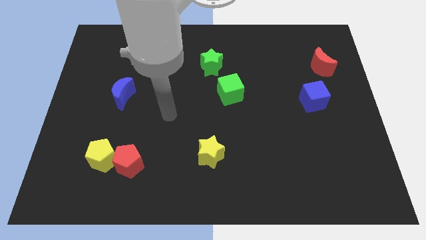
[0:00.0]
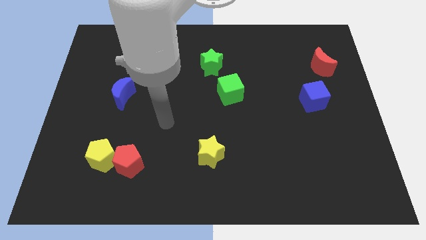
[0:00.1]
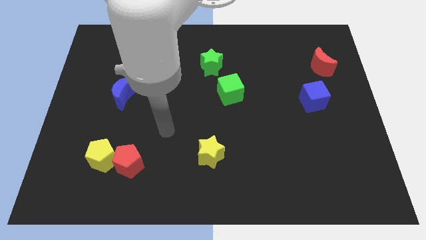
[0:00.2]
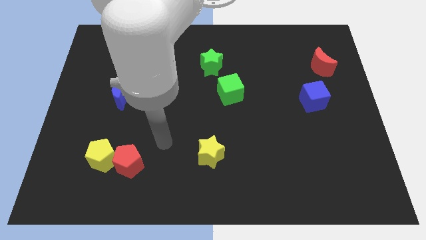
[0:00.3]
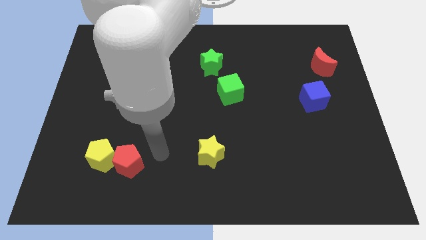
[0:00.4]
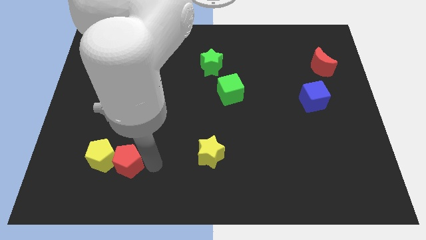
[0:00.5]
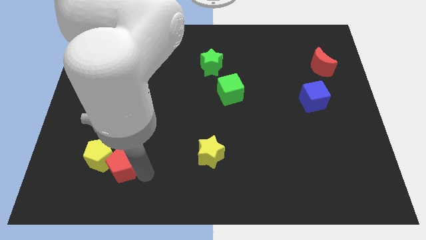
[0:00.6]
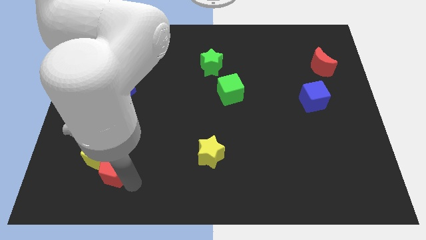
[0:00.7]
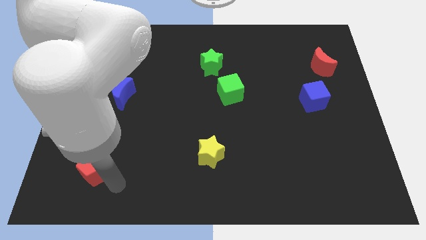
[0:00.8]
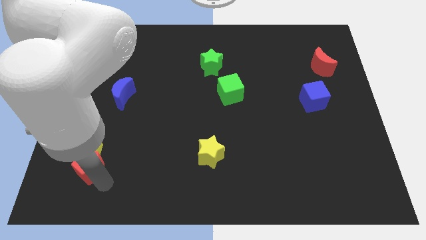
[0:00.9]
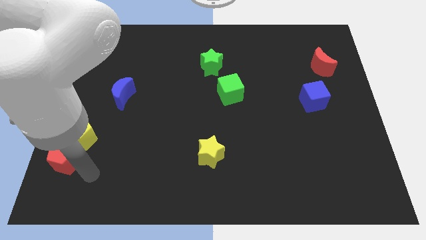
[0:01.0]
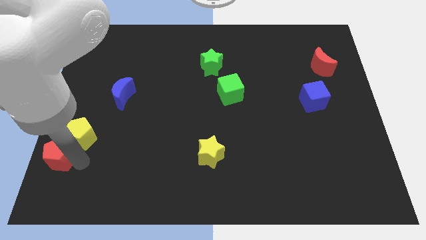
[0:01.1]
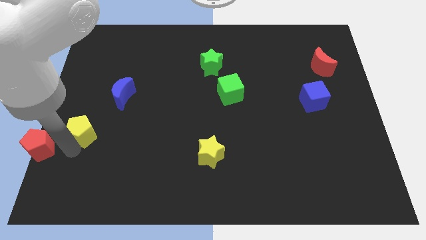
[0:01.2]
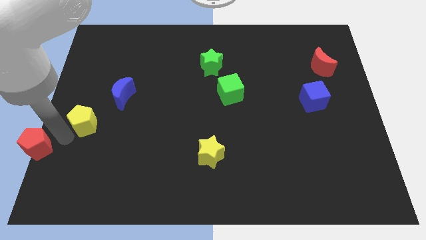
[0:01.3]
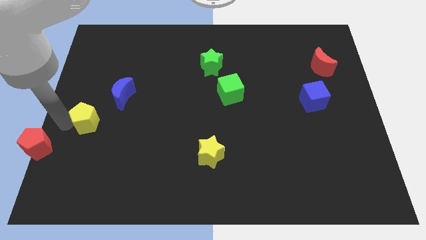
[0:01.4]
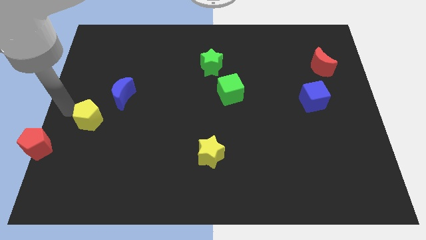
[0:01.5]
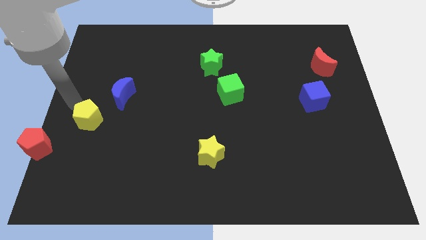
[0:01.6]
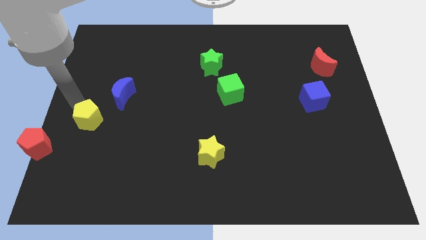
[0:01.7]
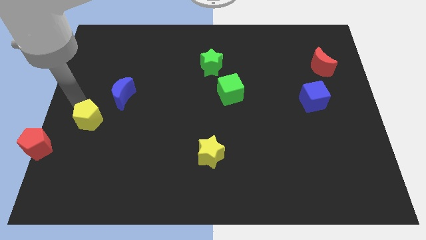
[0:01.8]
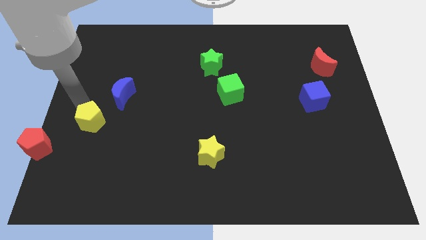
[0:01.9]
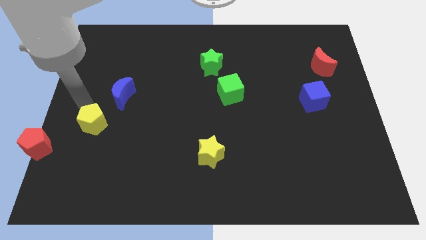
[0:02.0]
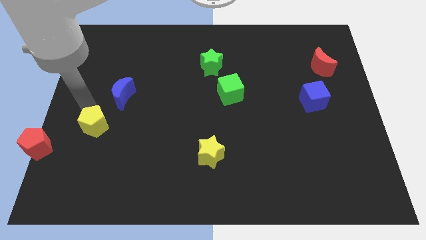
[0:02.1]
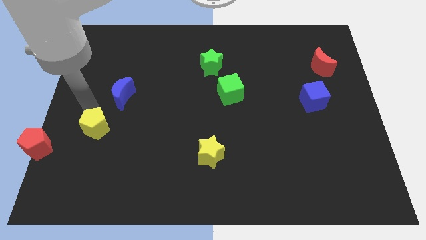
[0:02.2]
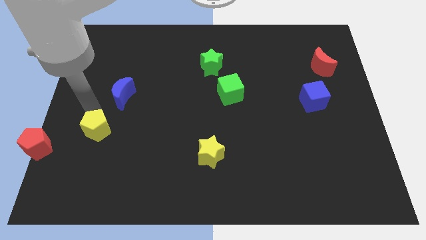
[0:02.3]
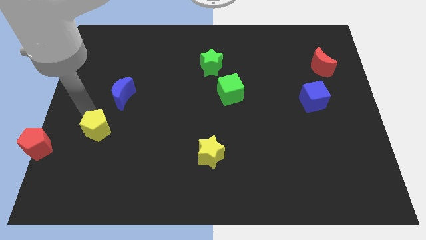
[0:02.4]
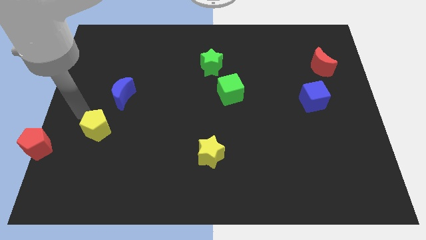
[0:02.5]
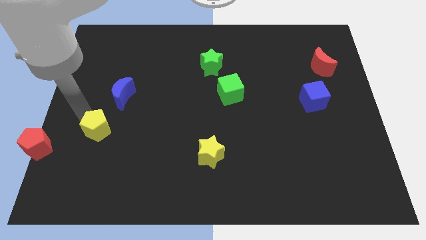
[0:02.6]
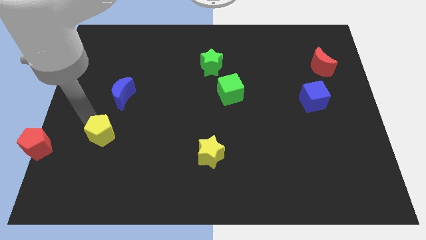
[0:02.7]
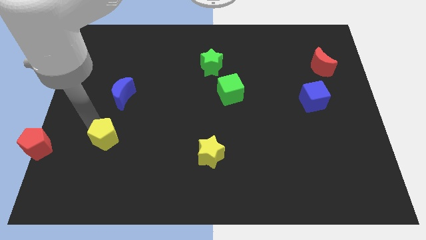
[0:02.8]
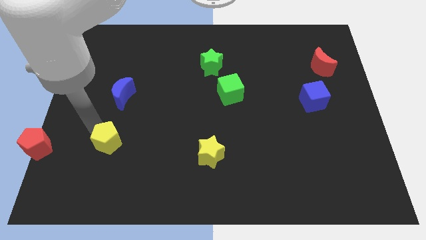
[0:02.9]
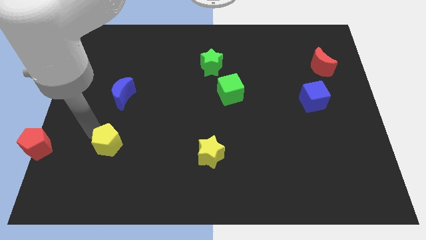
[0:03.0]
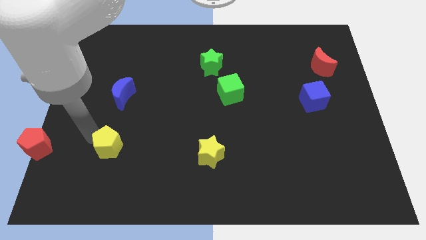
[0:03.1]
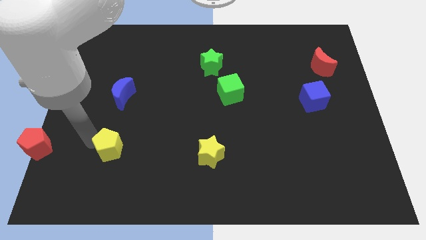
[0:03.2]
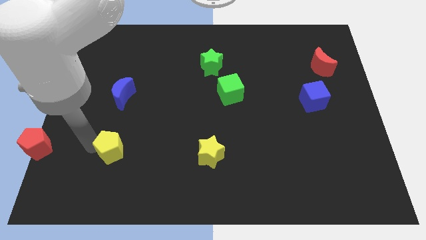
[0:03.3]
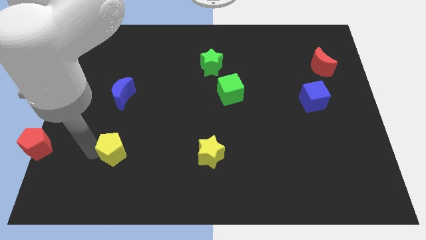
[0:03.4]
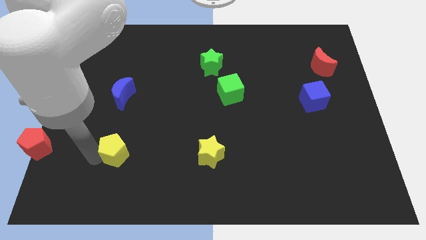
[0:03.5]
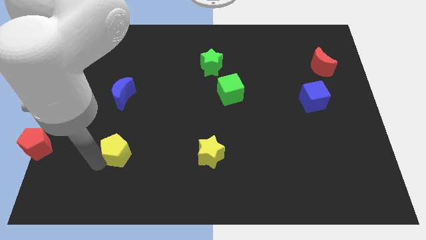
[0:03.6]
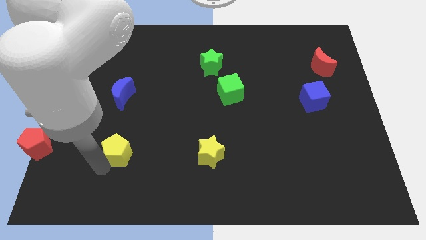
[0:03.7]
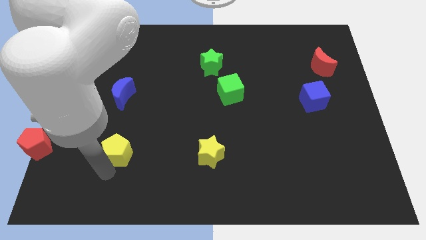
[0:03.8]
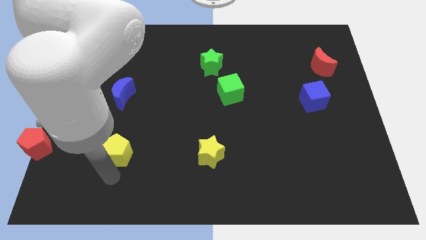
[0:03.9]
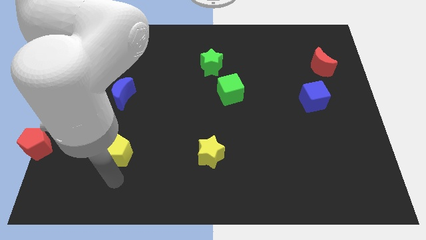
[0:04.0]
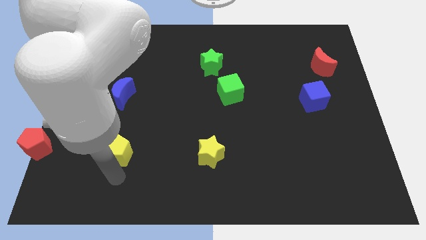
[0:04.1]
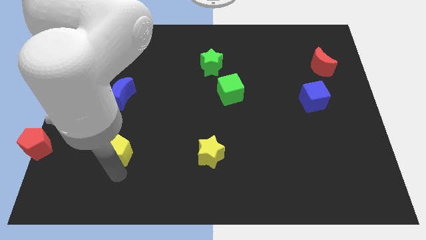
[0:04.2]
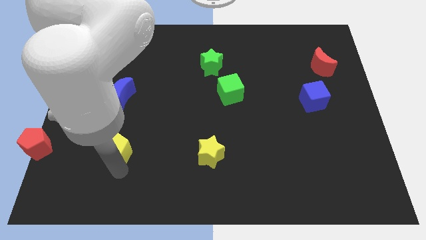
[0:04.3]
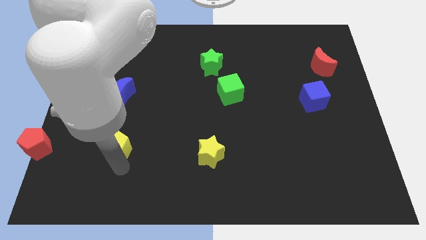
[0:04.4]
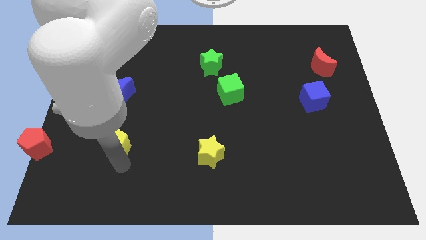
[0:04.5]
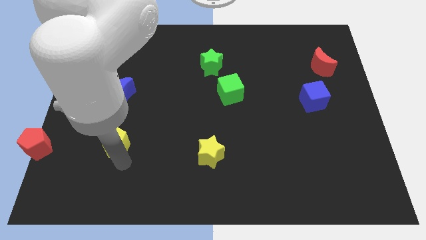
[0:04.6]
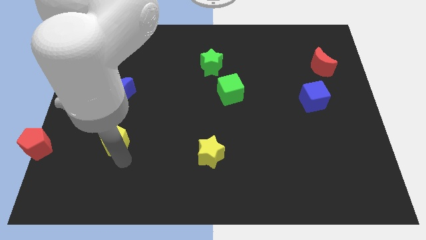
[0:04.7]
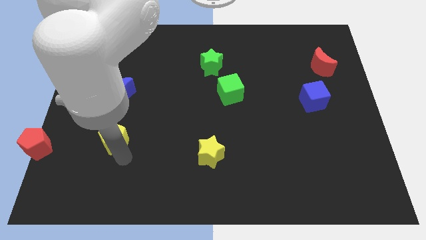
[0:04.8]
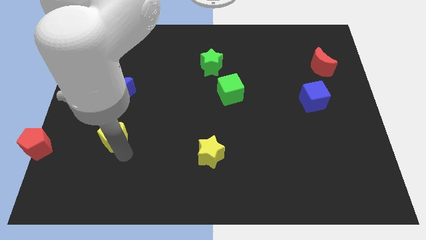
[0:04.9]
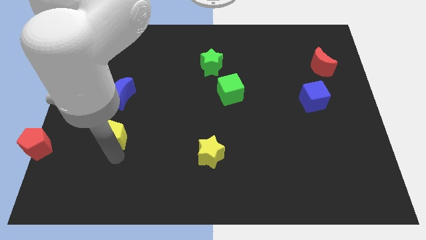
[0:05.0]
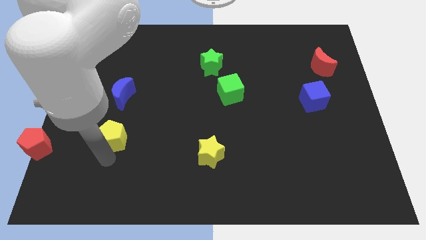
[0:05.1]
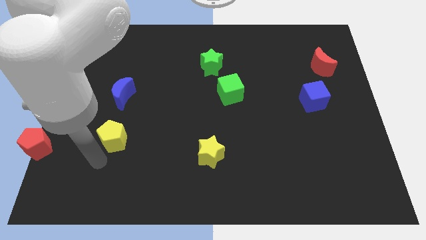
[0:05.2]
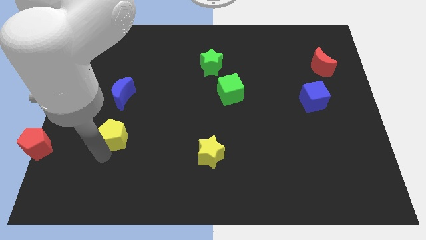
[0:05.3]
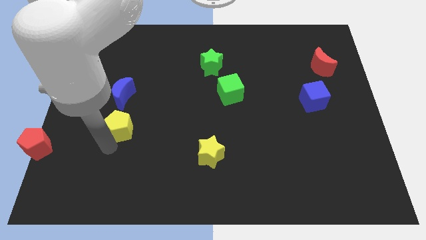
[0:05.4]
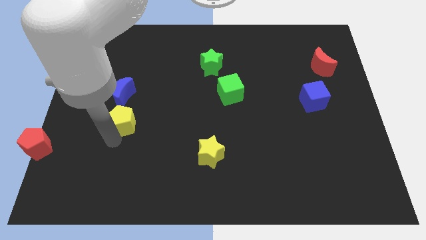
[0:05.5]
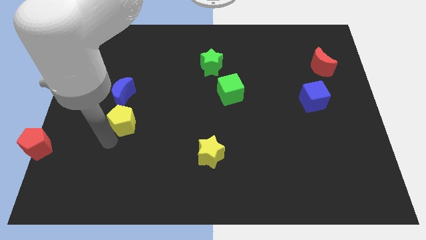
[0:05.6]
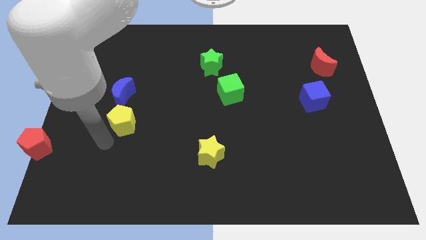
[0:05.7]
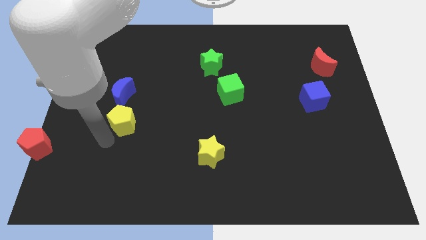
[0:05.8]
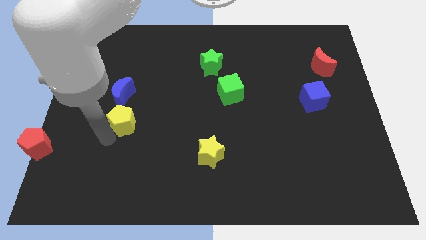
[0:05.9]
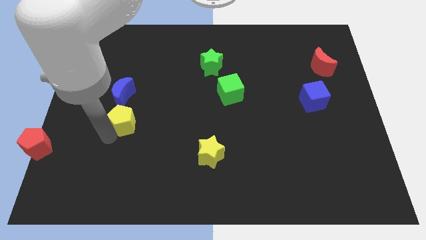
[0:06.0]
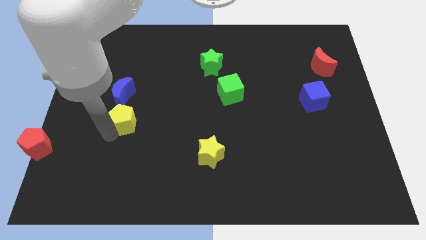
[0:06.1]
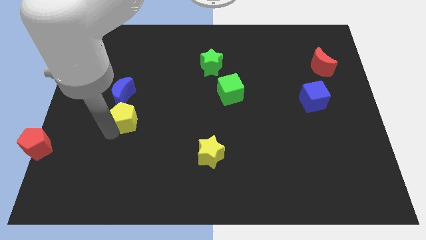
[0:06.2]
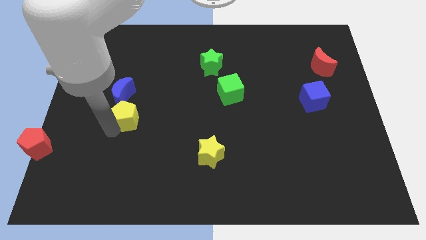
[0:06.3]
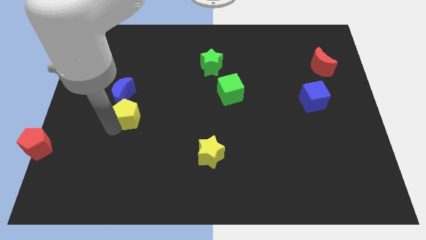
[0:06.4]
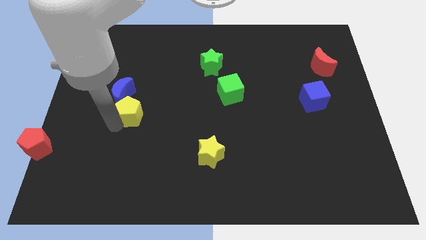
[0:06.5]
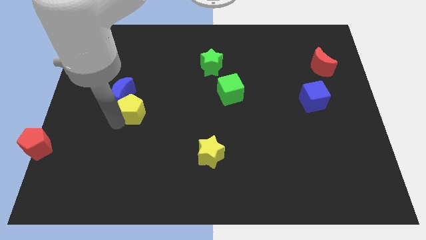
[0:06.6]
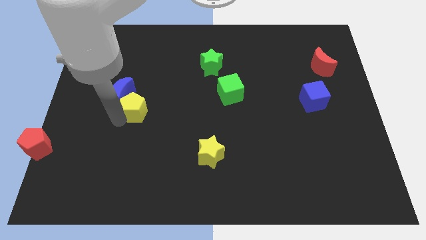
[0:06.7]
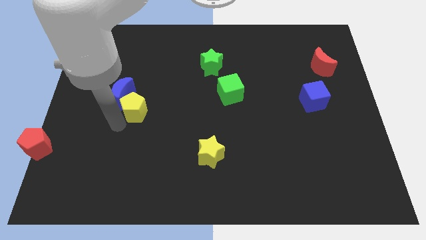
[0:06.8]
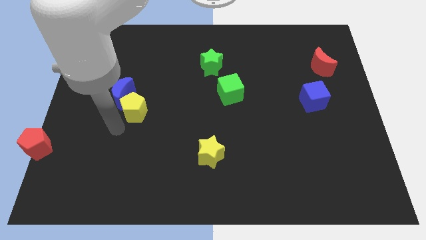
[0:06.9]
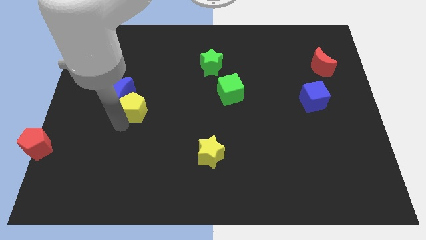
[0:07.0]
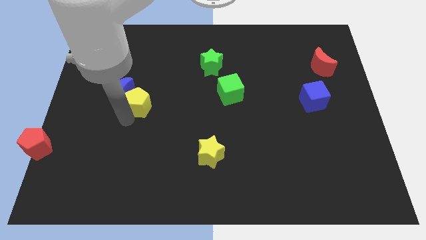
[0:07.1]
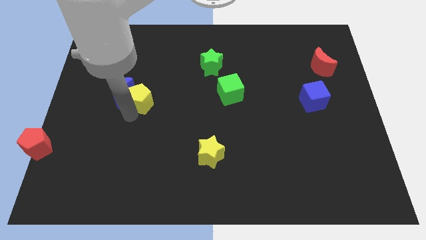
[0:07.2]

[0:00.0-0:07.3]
push the yellow pentagon to the top right side of the blue moon
